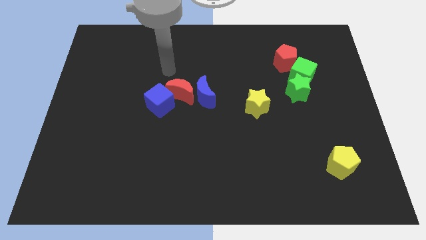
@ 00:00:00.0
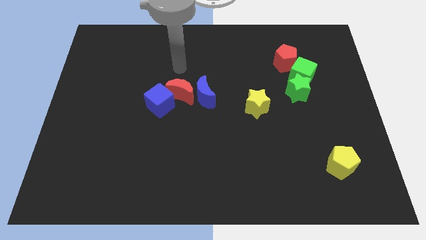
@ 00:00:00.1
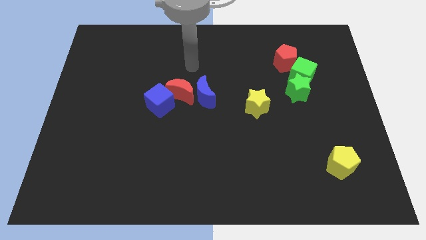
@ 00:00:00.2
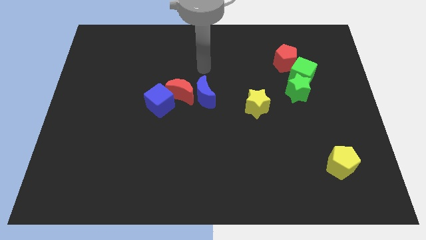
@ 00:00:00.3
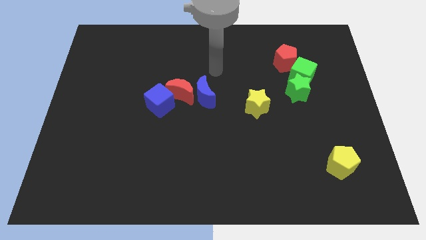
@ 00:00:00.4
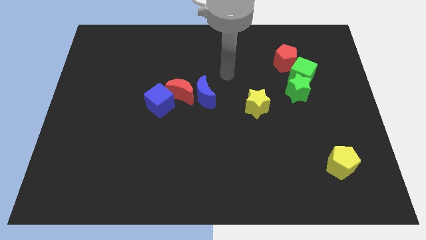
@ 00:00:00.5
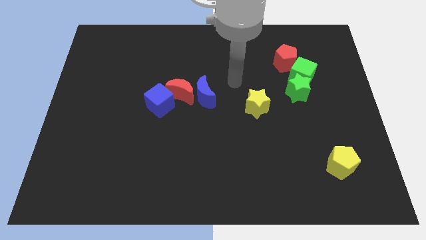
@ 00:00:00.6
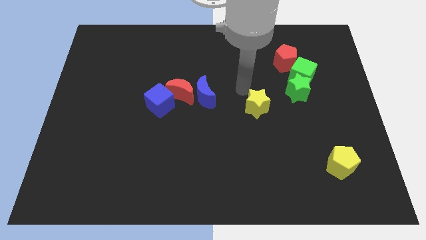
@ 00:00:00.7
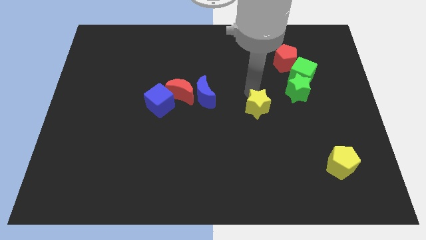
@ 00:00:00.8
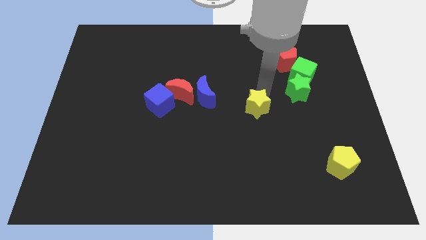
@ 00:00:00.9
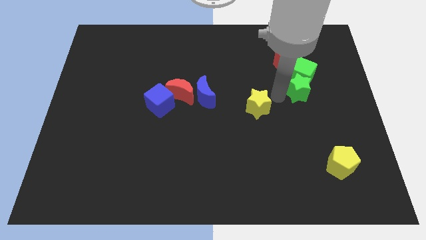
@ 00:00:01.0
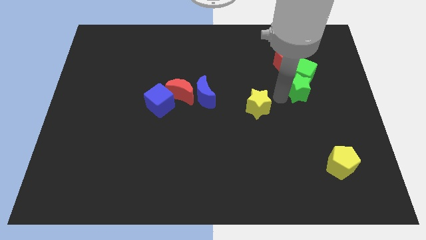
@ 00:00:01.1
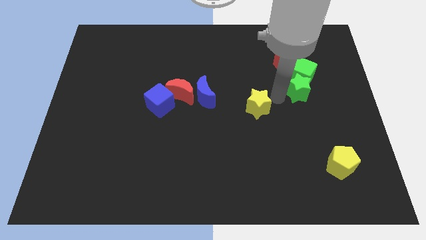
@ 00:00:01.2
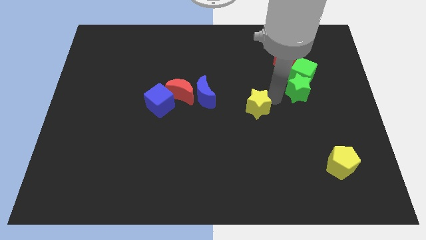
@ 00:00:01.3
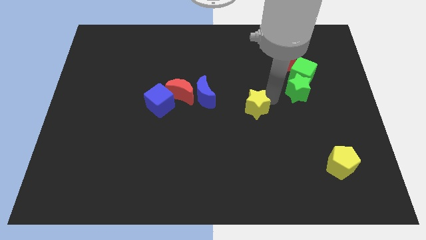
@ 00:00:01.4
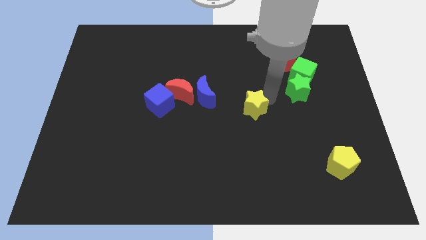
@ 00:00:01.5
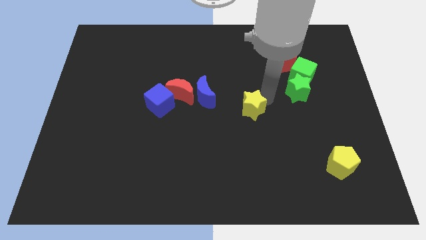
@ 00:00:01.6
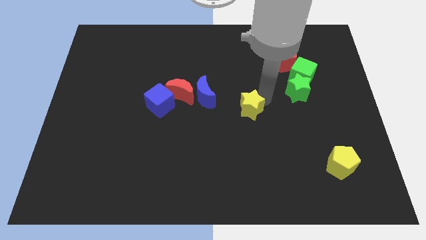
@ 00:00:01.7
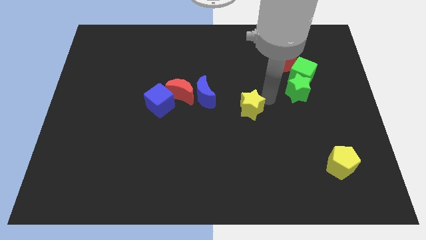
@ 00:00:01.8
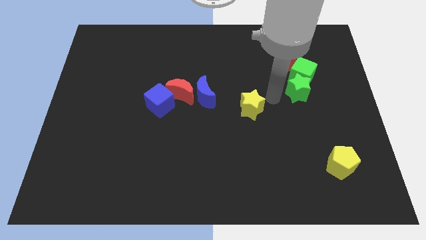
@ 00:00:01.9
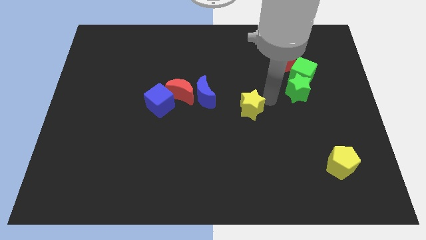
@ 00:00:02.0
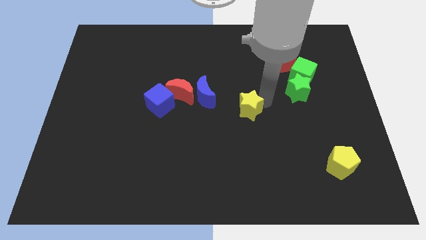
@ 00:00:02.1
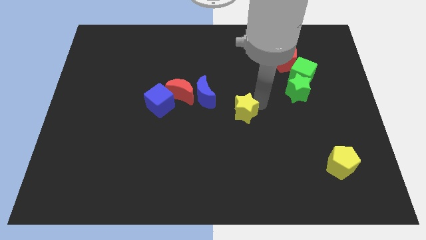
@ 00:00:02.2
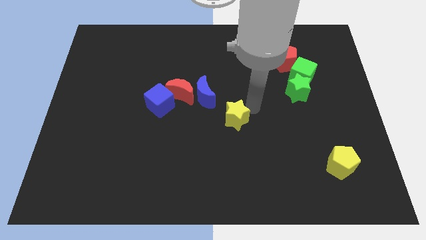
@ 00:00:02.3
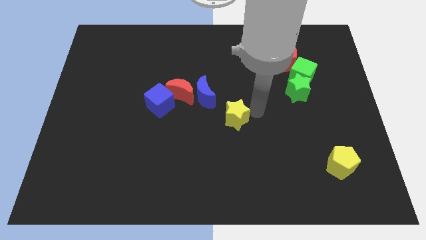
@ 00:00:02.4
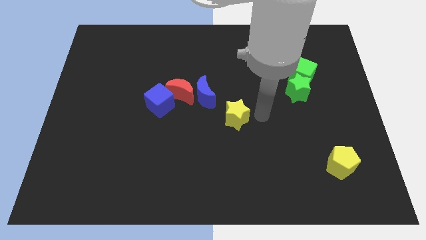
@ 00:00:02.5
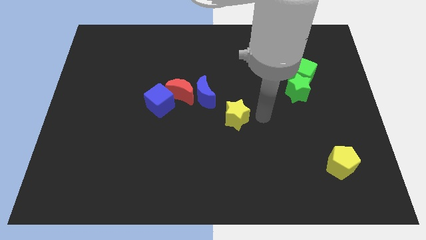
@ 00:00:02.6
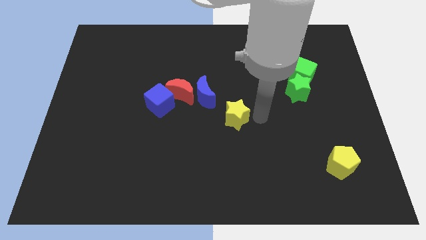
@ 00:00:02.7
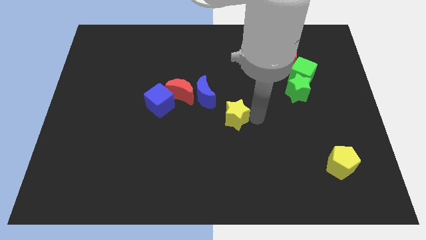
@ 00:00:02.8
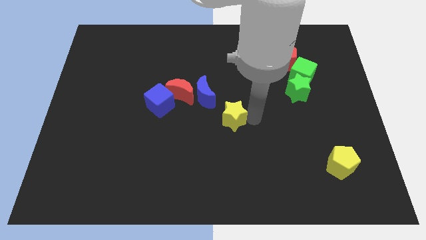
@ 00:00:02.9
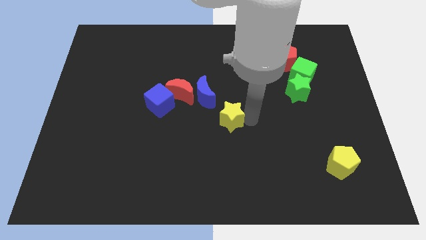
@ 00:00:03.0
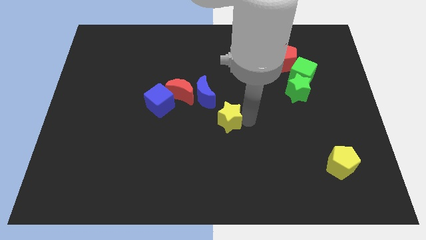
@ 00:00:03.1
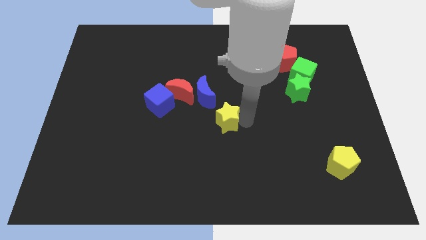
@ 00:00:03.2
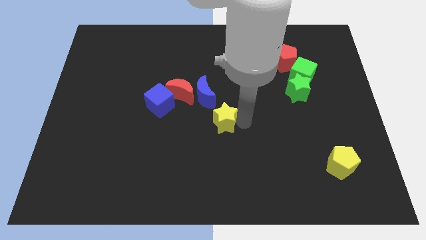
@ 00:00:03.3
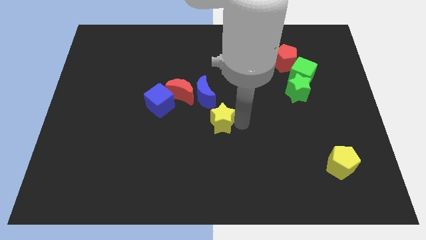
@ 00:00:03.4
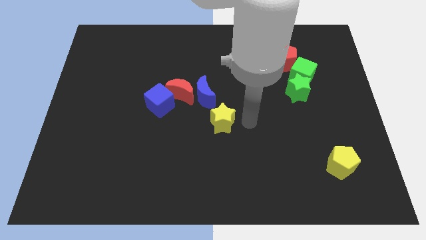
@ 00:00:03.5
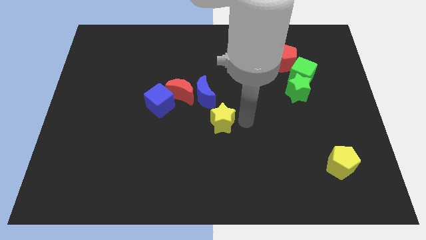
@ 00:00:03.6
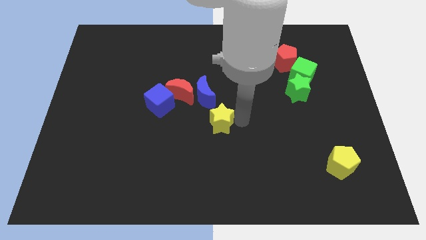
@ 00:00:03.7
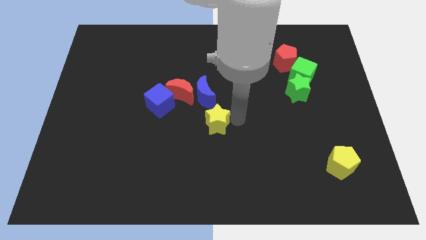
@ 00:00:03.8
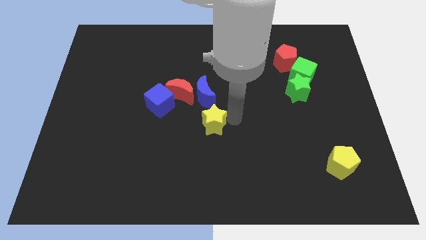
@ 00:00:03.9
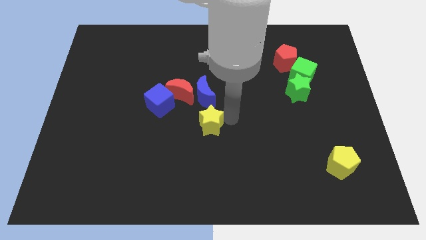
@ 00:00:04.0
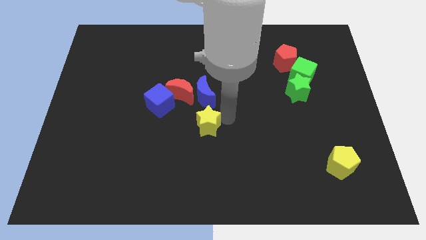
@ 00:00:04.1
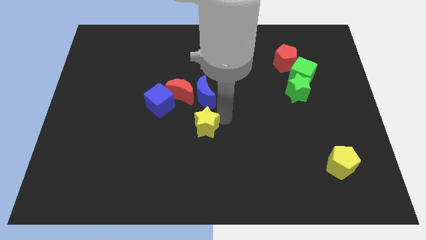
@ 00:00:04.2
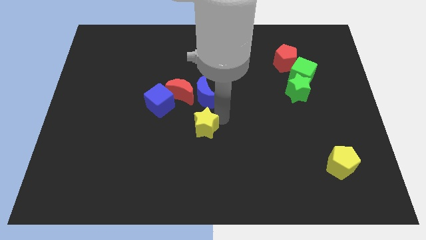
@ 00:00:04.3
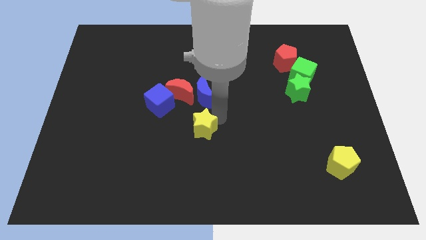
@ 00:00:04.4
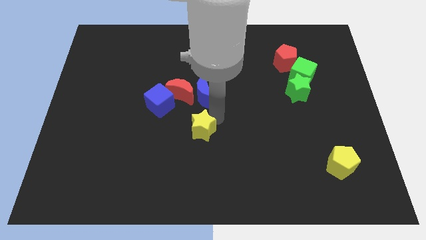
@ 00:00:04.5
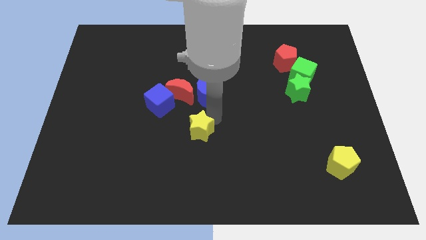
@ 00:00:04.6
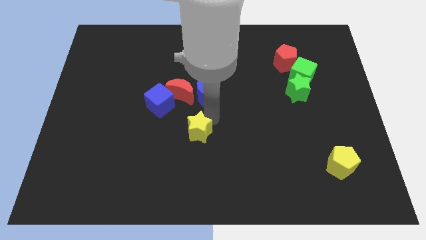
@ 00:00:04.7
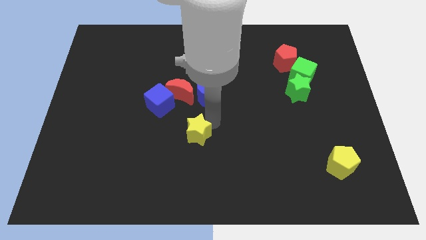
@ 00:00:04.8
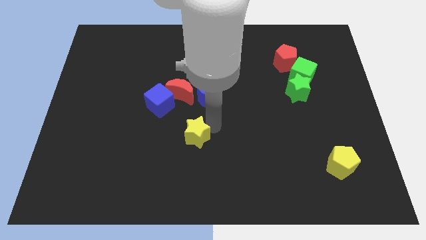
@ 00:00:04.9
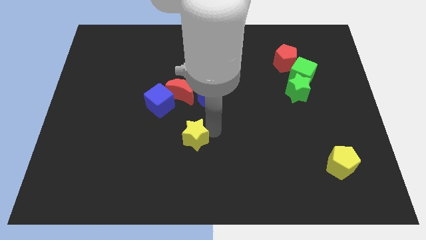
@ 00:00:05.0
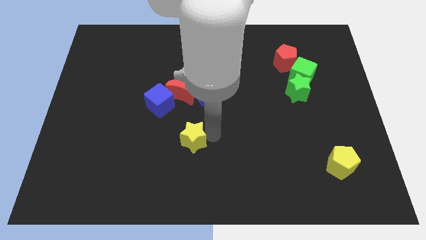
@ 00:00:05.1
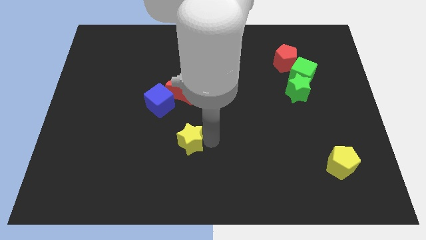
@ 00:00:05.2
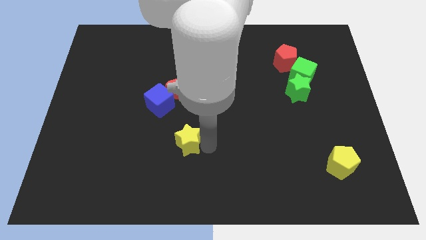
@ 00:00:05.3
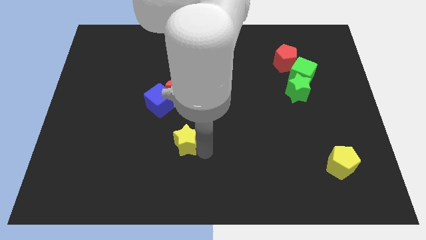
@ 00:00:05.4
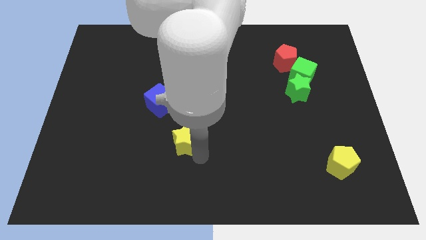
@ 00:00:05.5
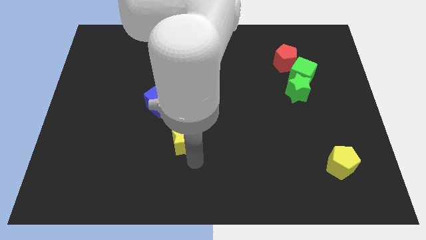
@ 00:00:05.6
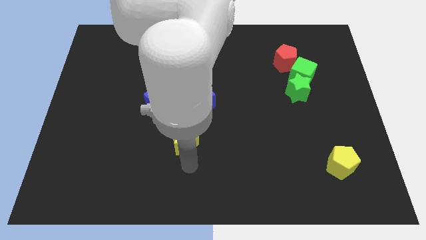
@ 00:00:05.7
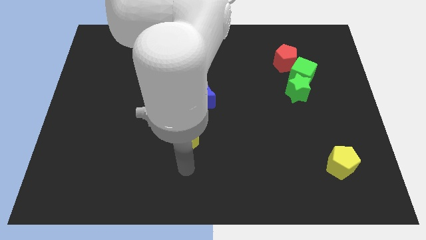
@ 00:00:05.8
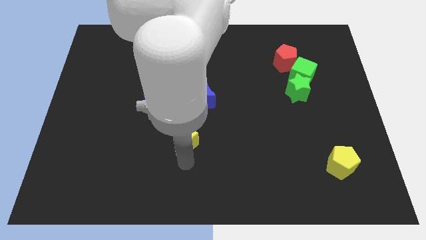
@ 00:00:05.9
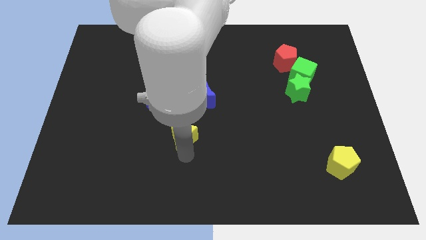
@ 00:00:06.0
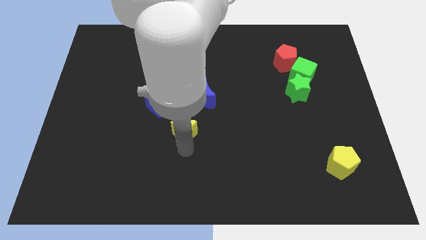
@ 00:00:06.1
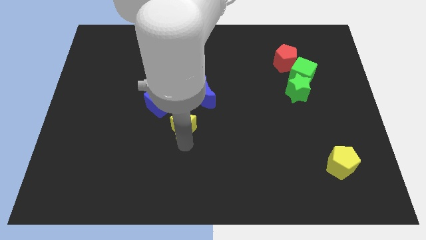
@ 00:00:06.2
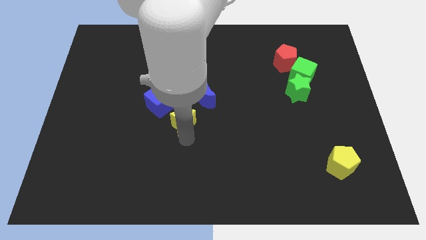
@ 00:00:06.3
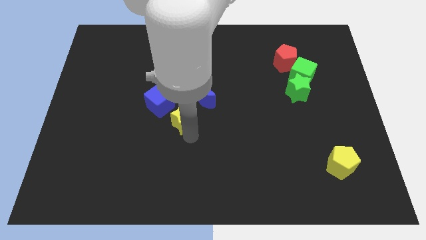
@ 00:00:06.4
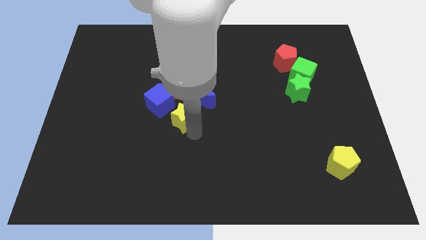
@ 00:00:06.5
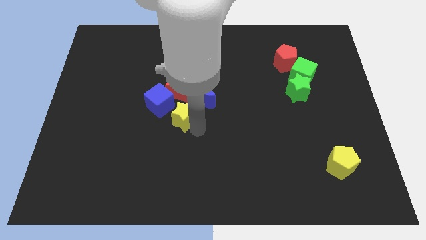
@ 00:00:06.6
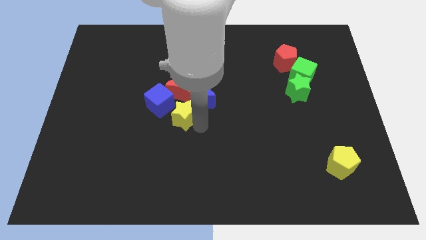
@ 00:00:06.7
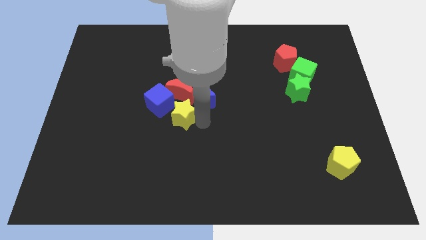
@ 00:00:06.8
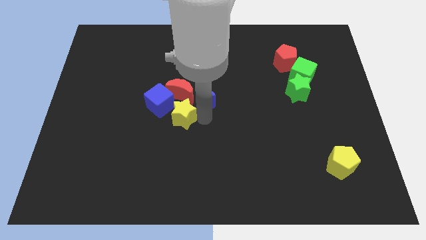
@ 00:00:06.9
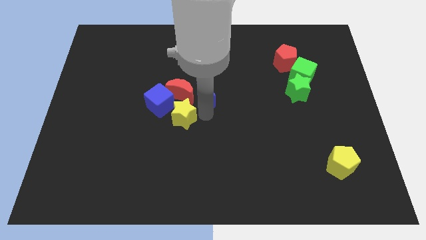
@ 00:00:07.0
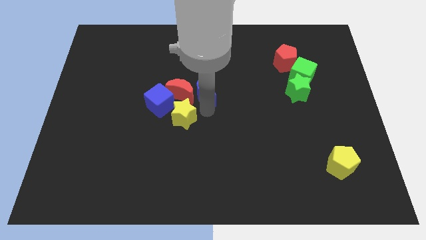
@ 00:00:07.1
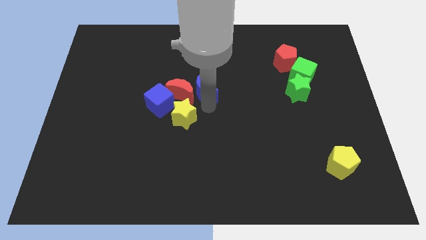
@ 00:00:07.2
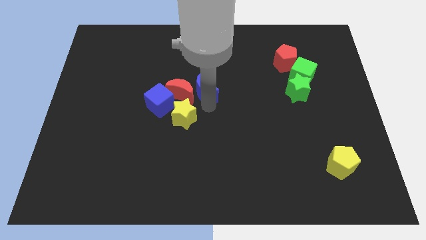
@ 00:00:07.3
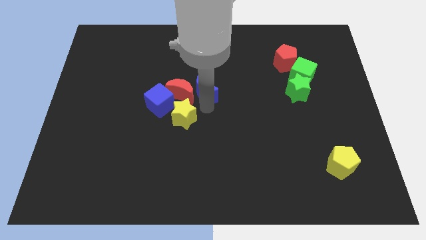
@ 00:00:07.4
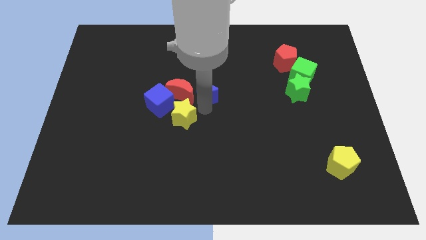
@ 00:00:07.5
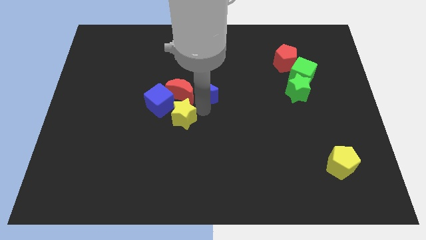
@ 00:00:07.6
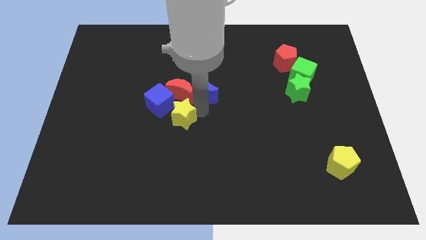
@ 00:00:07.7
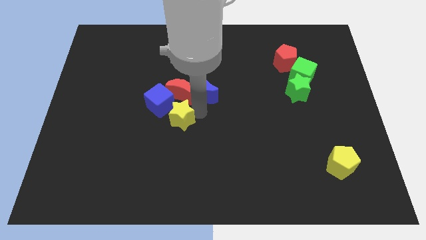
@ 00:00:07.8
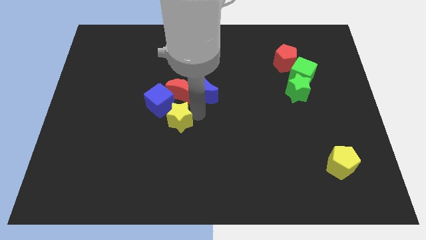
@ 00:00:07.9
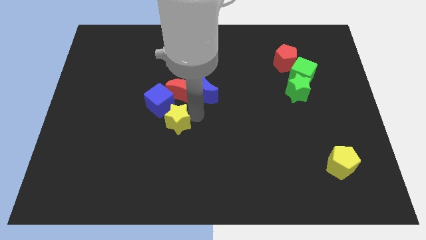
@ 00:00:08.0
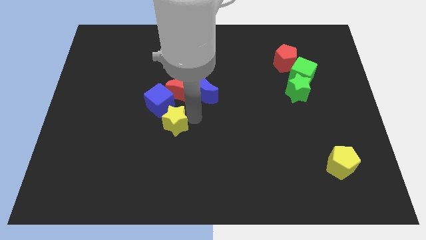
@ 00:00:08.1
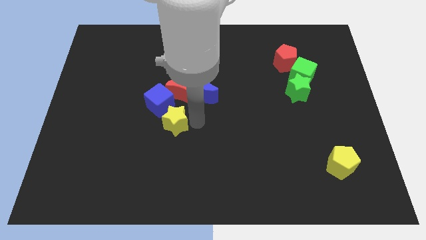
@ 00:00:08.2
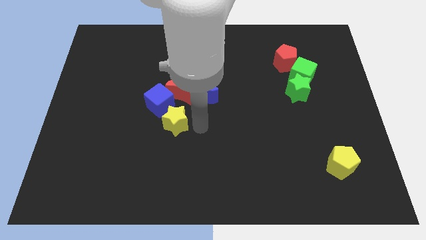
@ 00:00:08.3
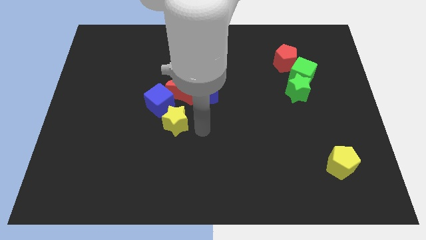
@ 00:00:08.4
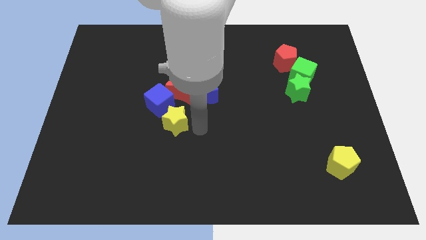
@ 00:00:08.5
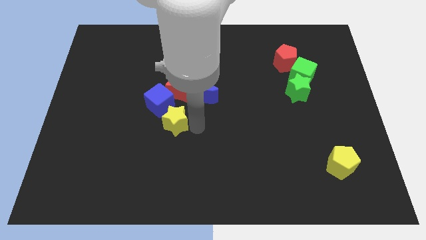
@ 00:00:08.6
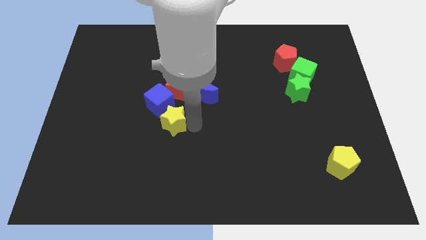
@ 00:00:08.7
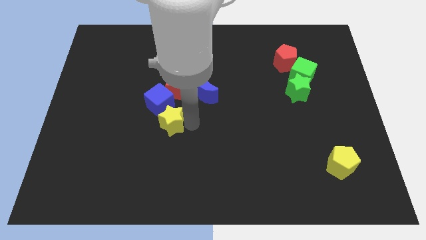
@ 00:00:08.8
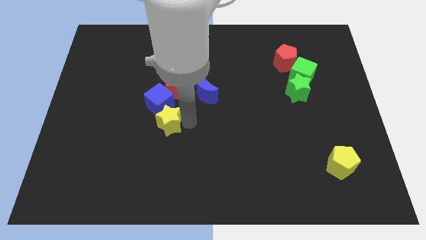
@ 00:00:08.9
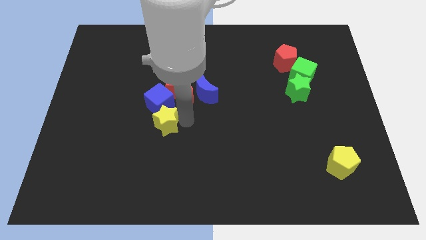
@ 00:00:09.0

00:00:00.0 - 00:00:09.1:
move the yellow star to the left
